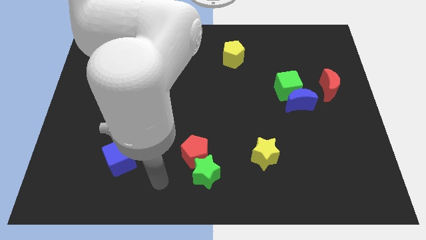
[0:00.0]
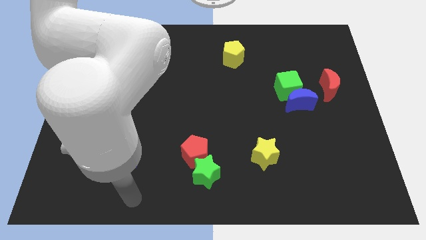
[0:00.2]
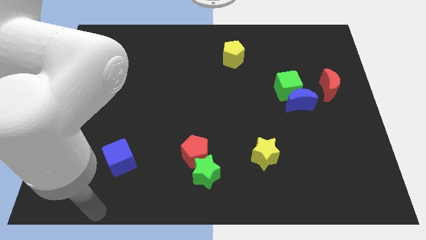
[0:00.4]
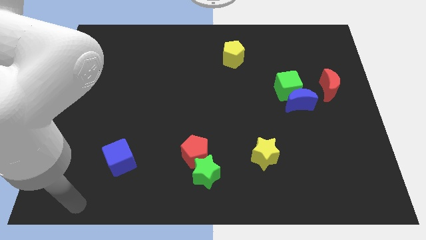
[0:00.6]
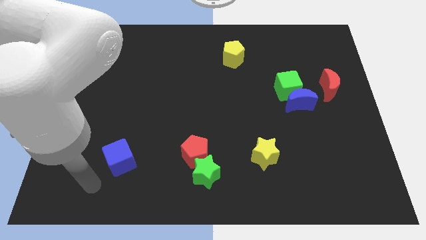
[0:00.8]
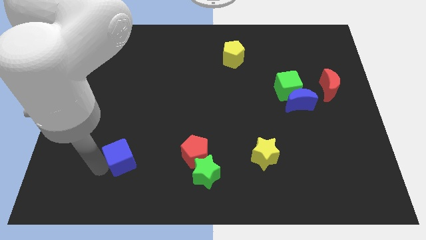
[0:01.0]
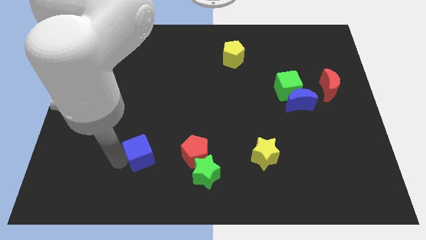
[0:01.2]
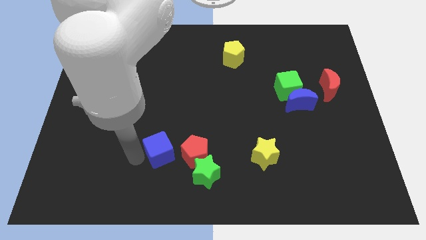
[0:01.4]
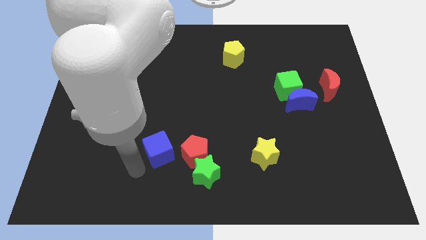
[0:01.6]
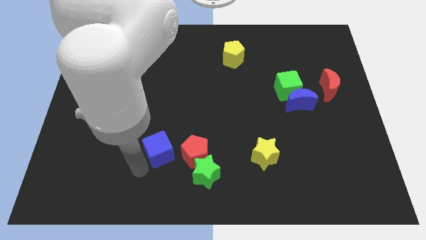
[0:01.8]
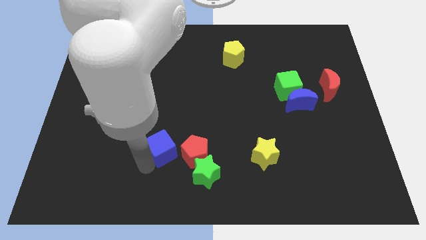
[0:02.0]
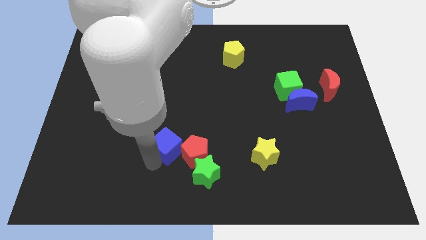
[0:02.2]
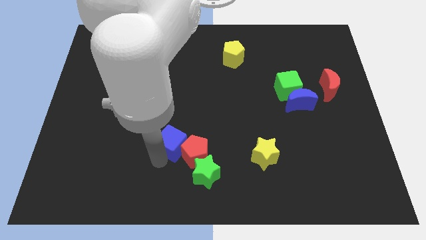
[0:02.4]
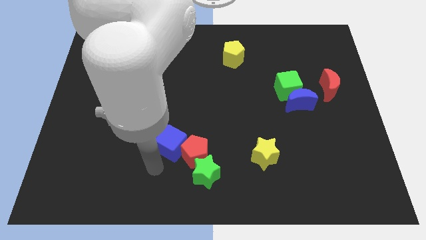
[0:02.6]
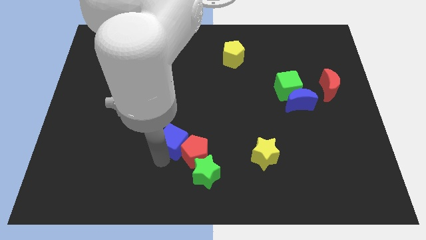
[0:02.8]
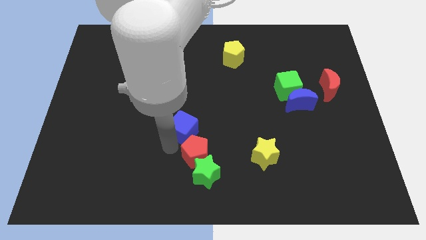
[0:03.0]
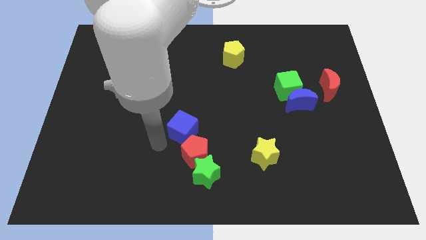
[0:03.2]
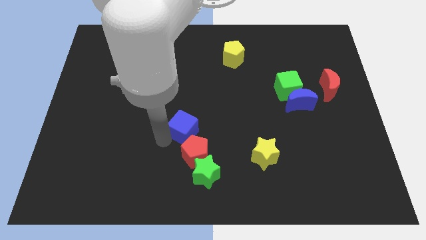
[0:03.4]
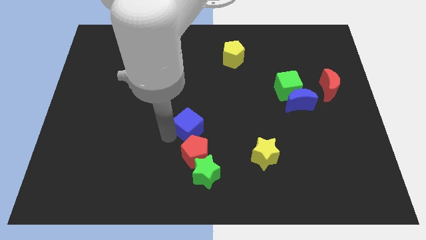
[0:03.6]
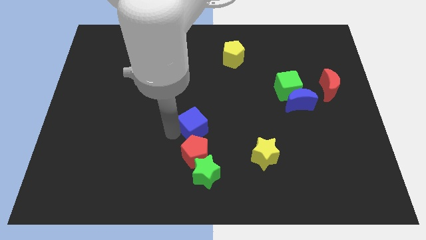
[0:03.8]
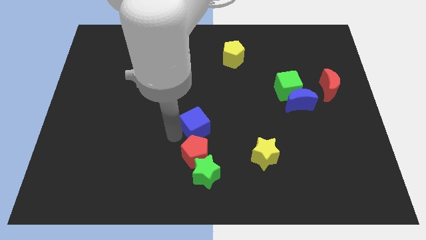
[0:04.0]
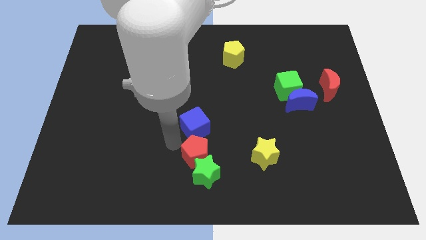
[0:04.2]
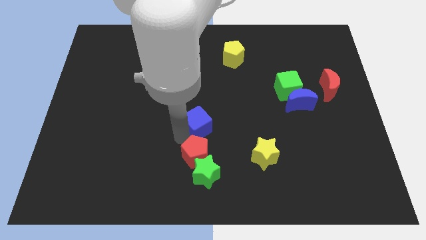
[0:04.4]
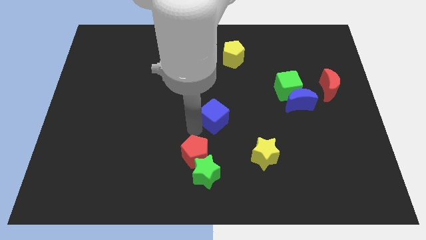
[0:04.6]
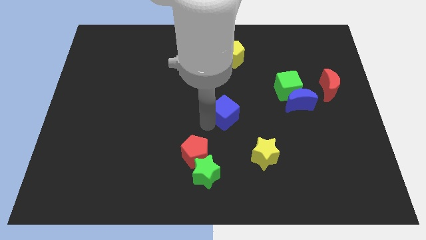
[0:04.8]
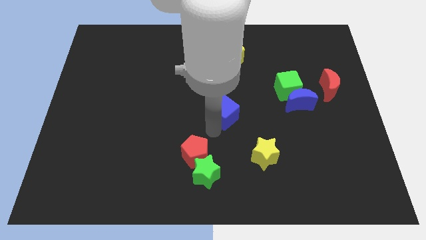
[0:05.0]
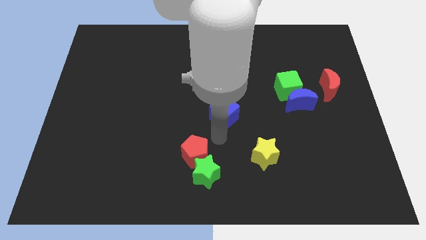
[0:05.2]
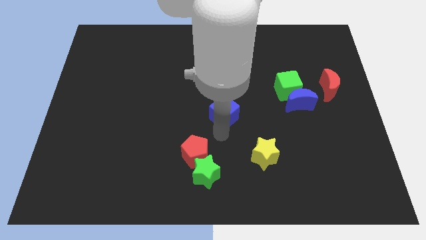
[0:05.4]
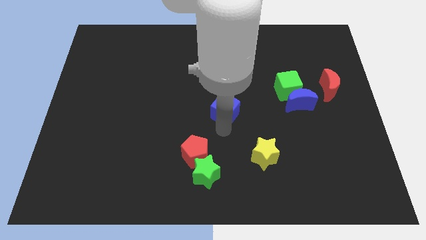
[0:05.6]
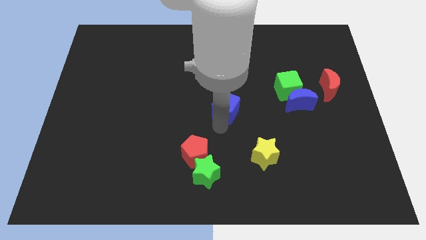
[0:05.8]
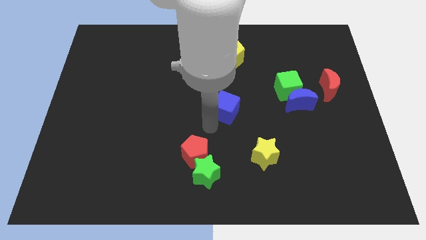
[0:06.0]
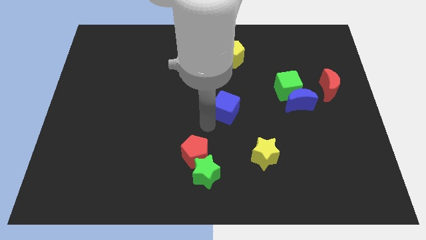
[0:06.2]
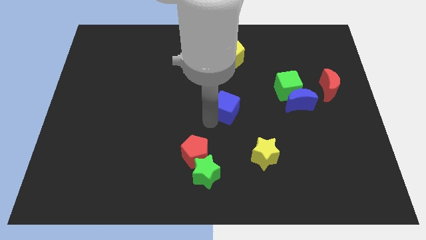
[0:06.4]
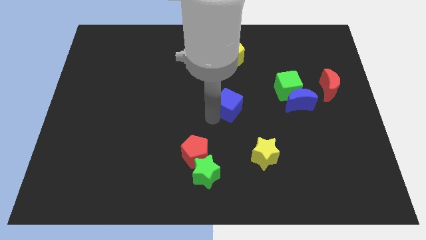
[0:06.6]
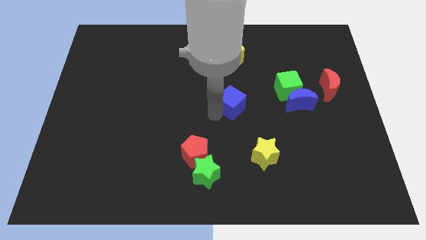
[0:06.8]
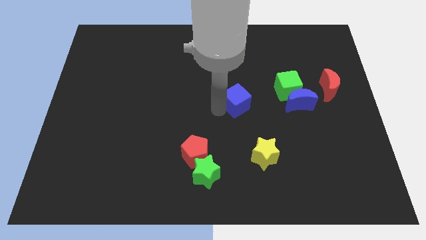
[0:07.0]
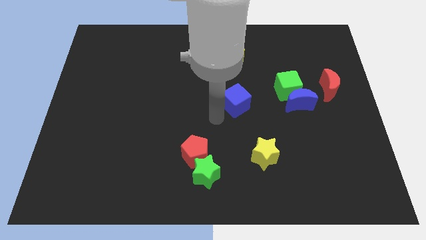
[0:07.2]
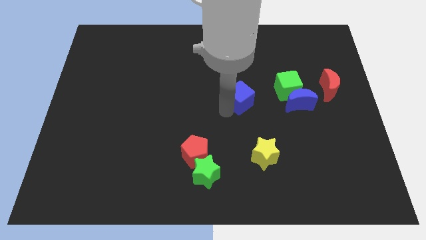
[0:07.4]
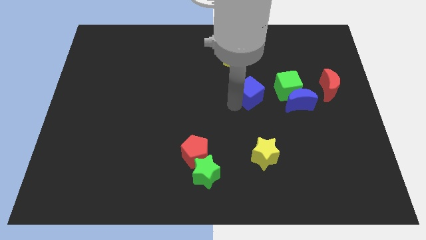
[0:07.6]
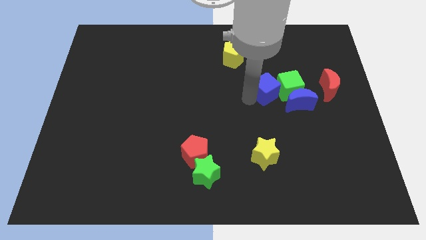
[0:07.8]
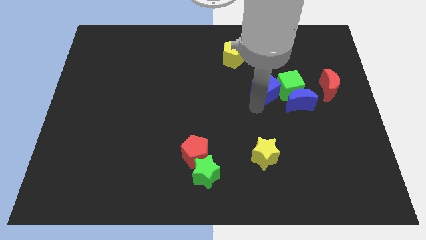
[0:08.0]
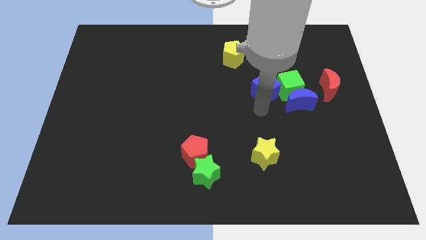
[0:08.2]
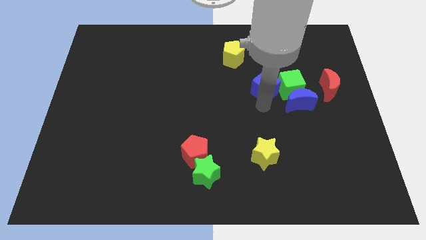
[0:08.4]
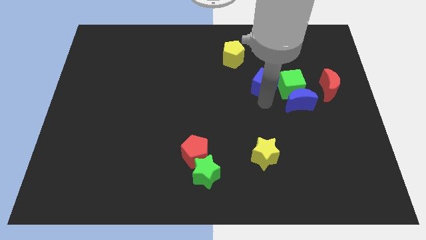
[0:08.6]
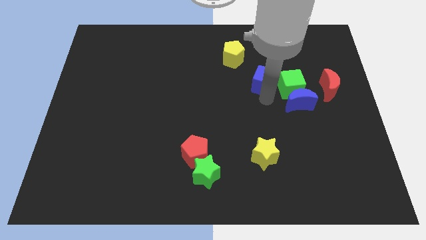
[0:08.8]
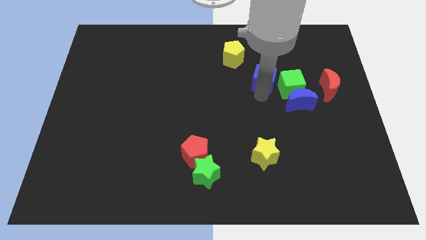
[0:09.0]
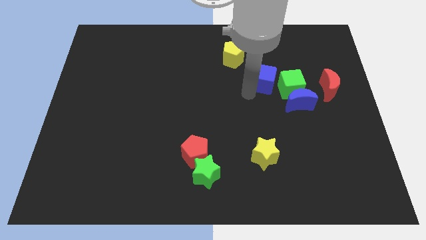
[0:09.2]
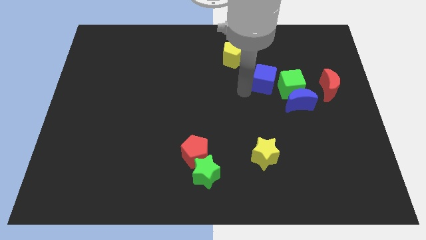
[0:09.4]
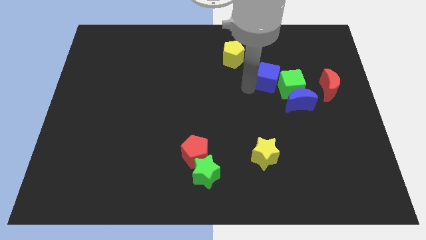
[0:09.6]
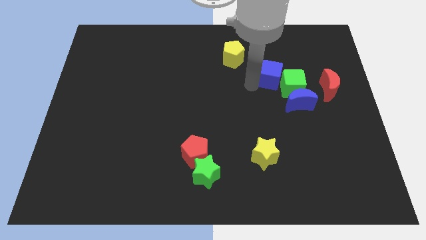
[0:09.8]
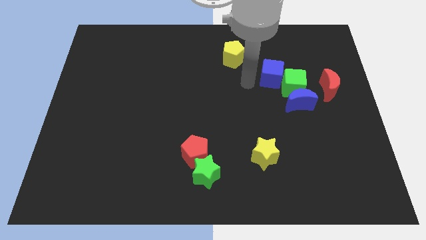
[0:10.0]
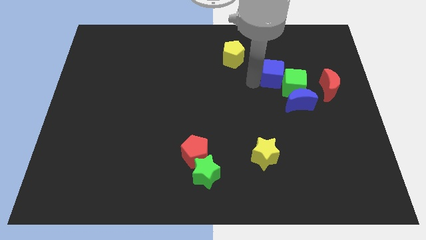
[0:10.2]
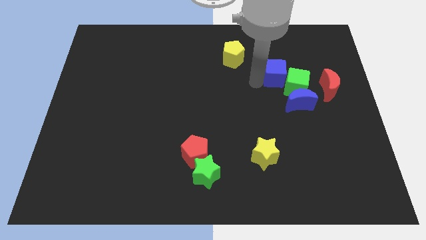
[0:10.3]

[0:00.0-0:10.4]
push the blue cube above the blue moon
